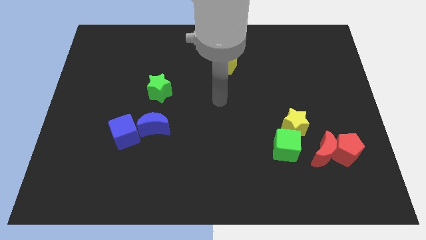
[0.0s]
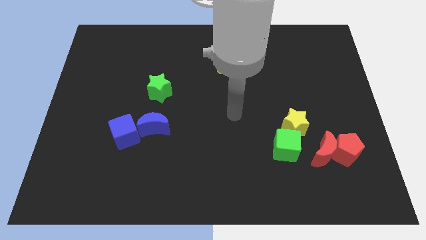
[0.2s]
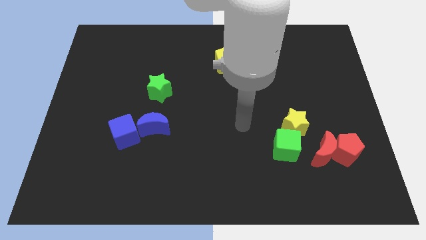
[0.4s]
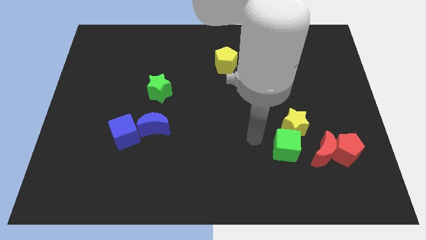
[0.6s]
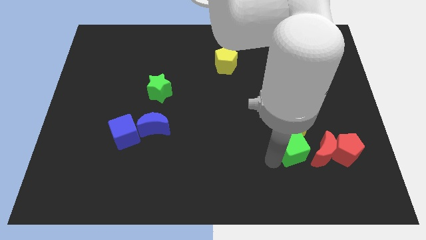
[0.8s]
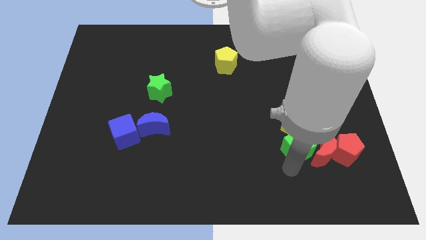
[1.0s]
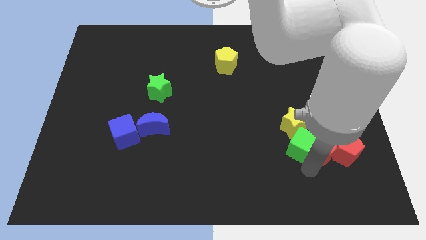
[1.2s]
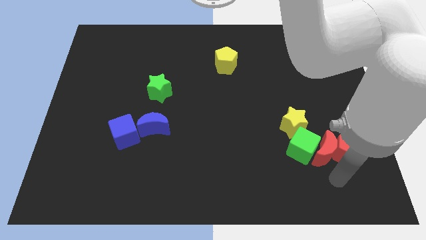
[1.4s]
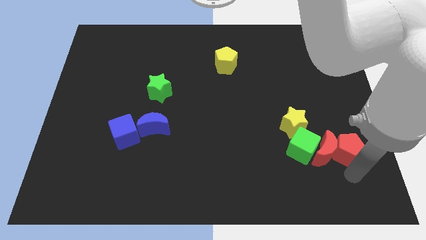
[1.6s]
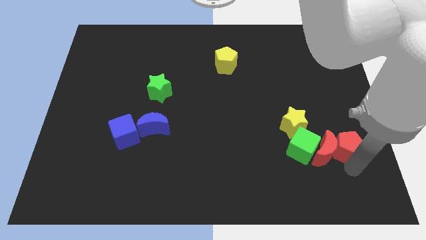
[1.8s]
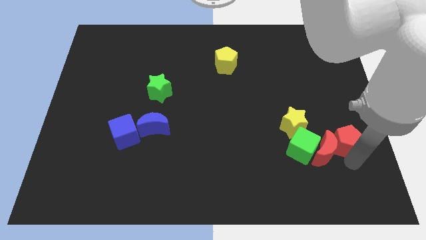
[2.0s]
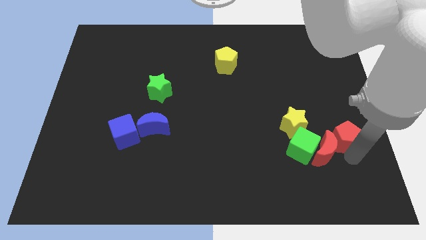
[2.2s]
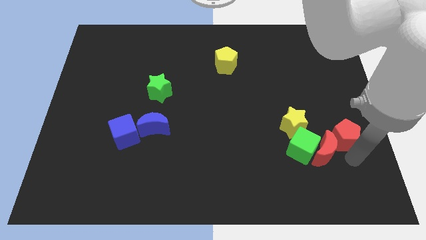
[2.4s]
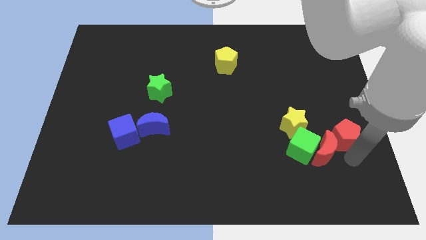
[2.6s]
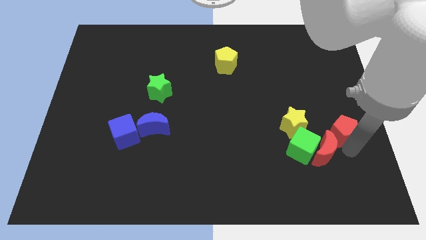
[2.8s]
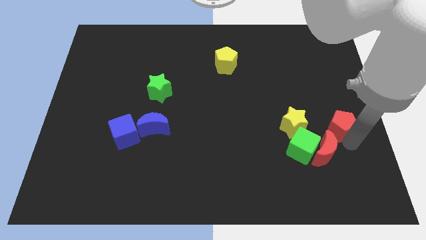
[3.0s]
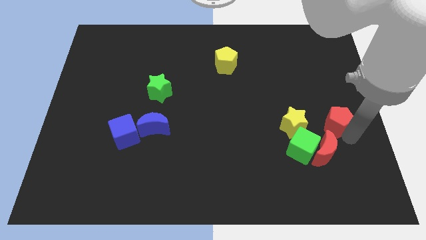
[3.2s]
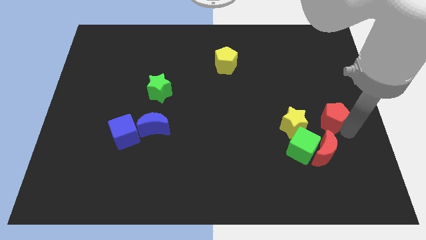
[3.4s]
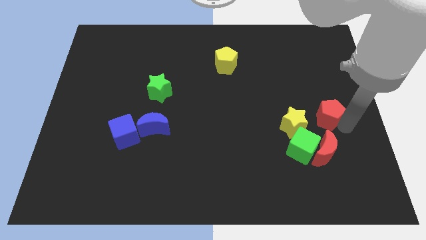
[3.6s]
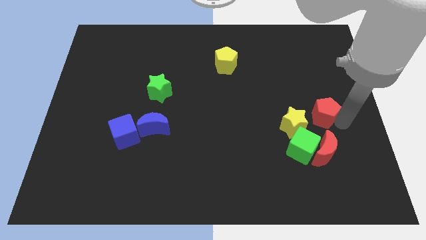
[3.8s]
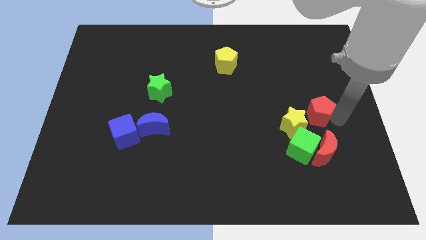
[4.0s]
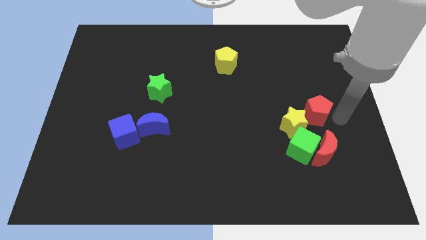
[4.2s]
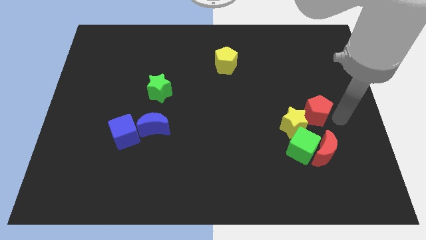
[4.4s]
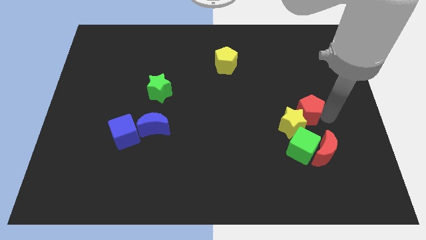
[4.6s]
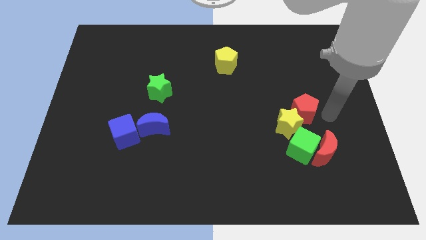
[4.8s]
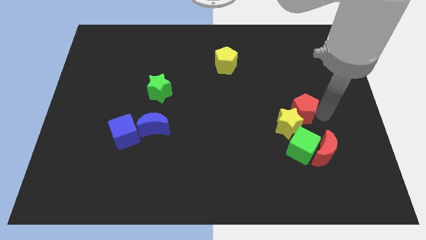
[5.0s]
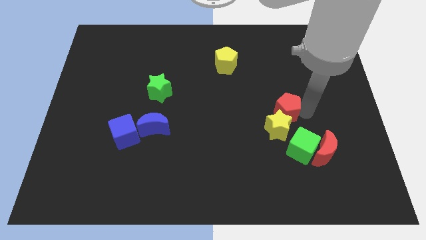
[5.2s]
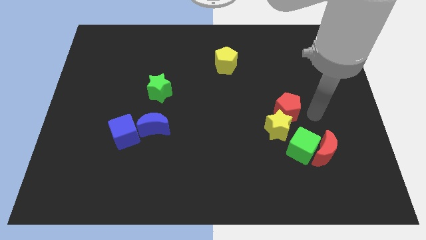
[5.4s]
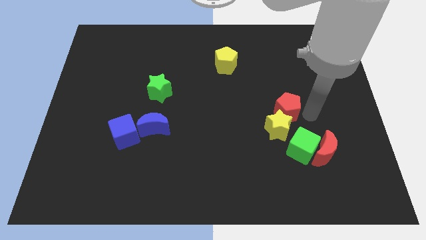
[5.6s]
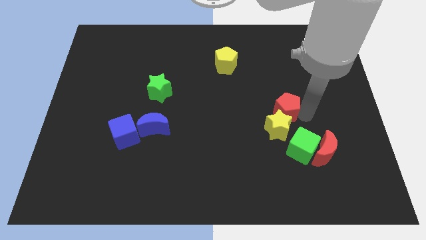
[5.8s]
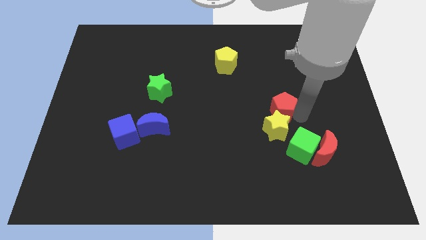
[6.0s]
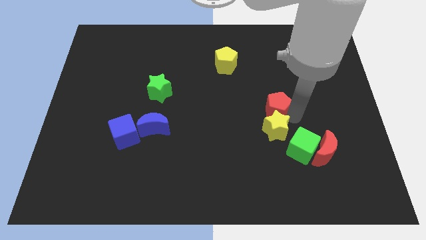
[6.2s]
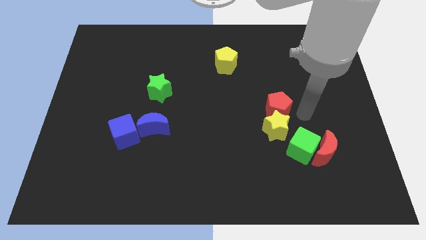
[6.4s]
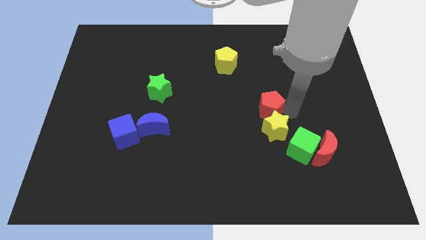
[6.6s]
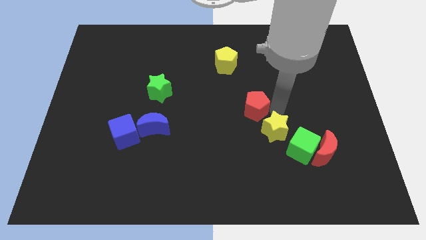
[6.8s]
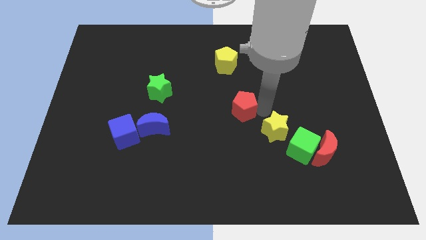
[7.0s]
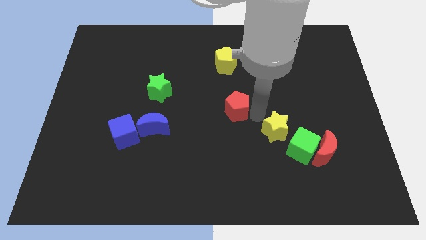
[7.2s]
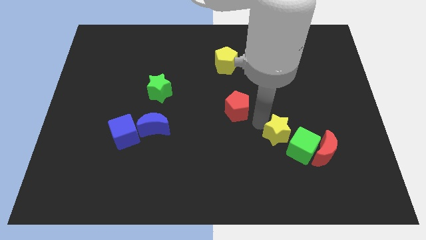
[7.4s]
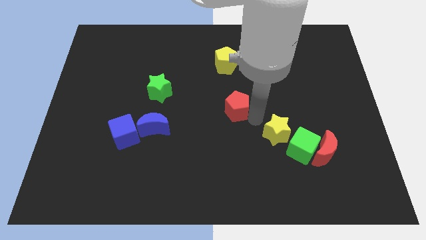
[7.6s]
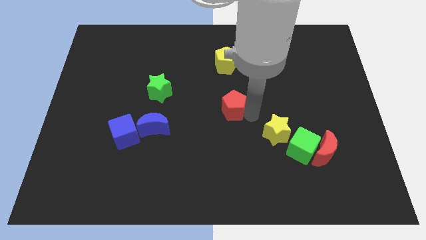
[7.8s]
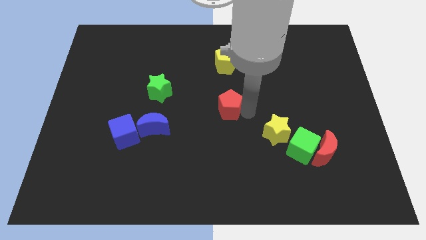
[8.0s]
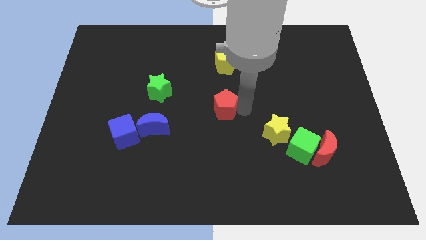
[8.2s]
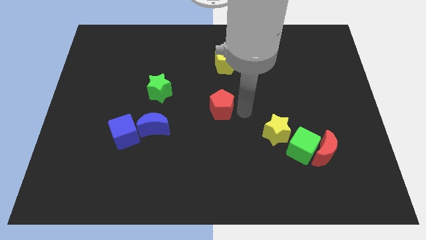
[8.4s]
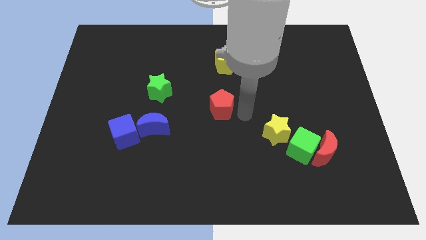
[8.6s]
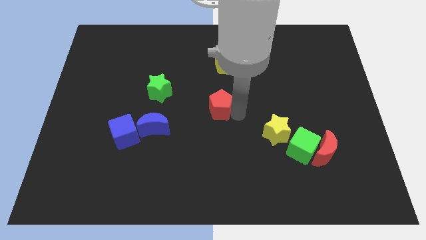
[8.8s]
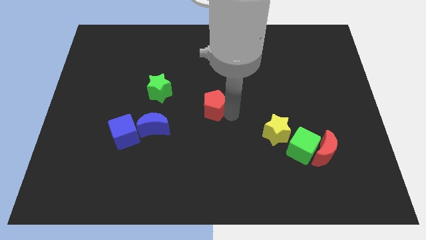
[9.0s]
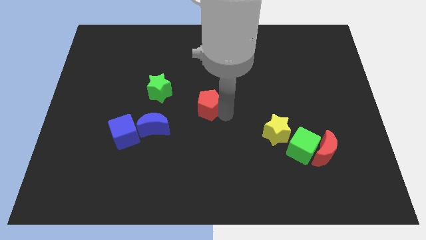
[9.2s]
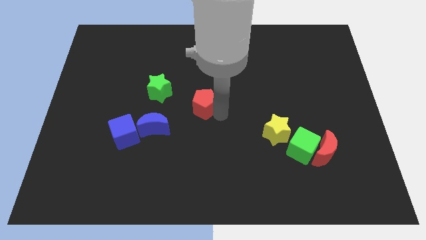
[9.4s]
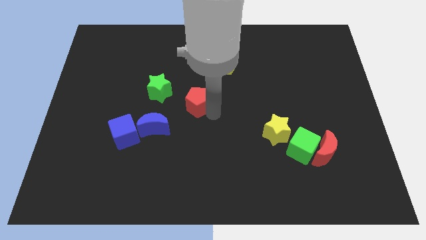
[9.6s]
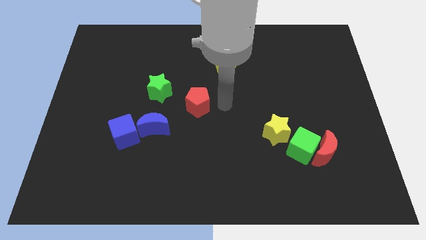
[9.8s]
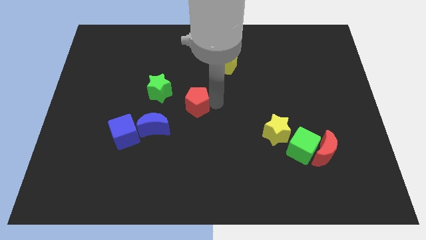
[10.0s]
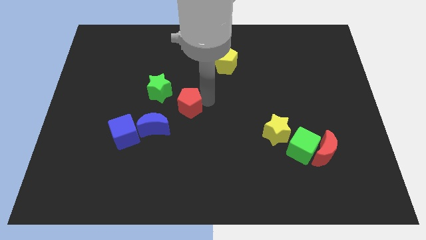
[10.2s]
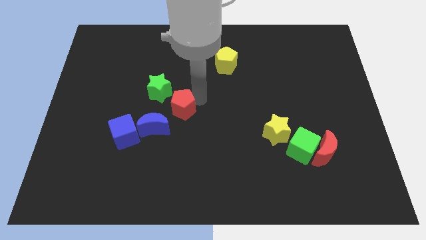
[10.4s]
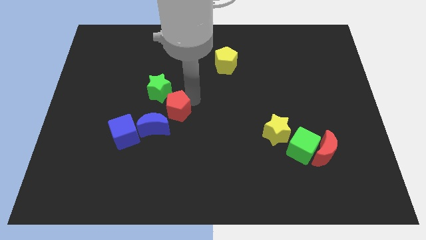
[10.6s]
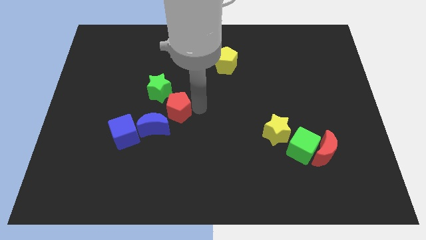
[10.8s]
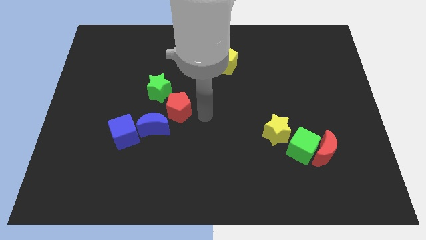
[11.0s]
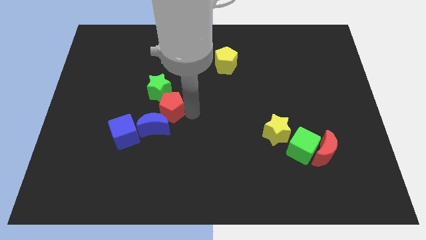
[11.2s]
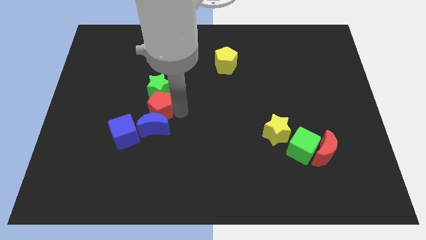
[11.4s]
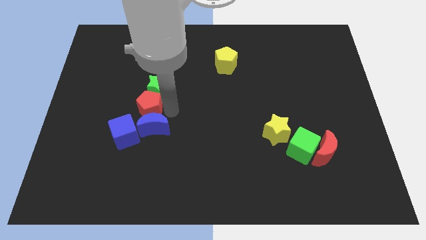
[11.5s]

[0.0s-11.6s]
slide the red pentagon above the blue cube

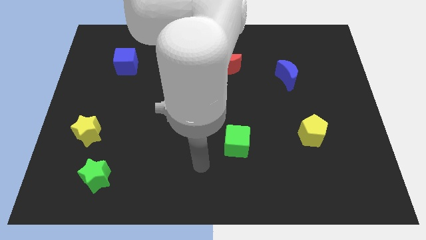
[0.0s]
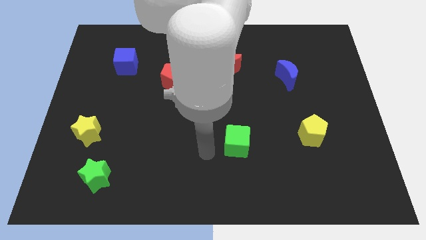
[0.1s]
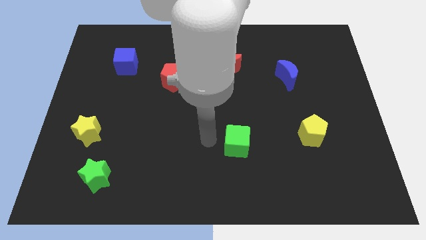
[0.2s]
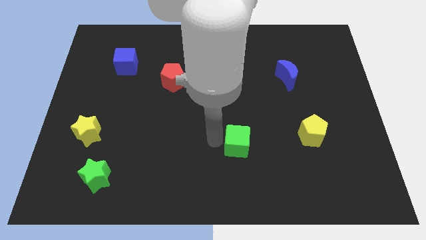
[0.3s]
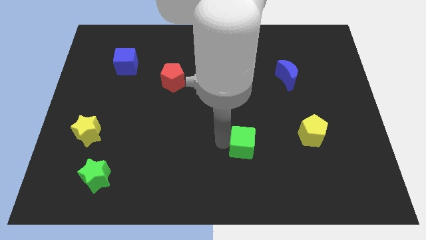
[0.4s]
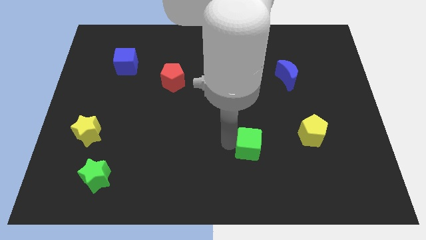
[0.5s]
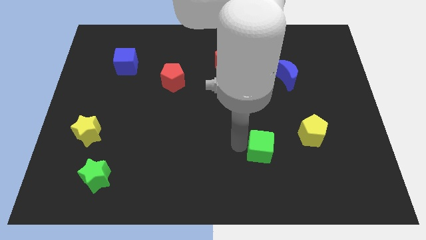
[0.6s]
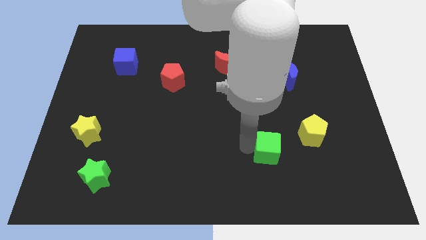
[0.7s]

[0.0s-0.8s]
push the green cube to the bottom left of the yellow pentagon
